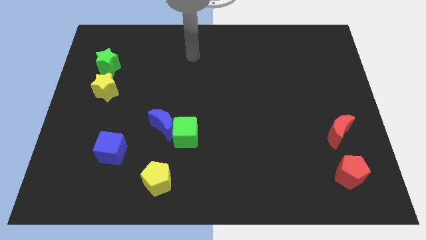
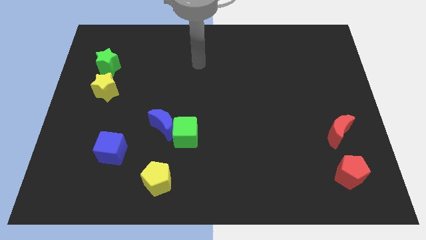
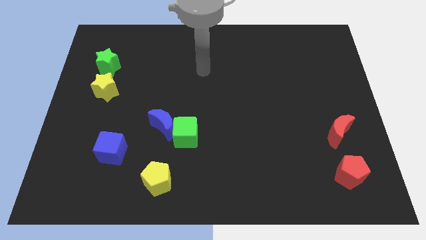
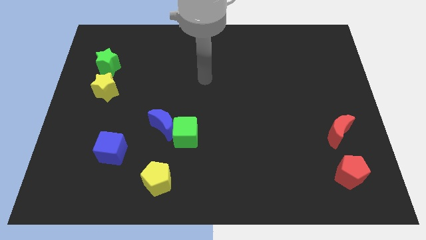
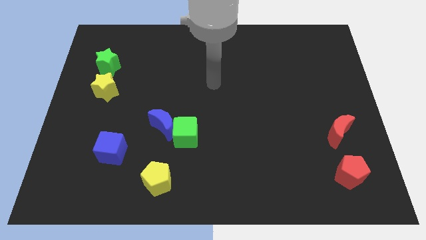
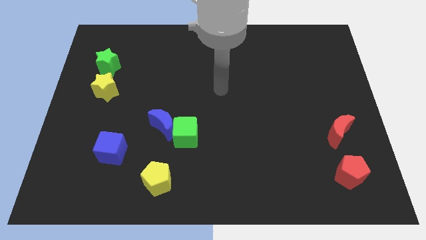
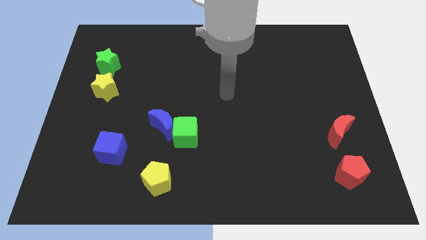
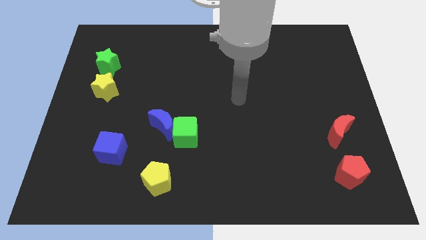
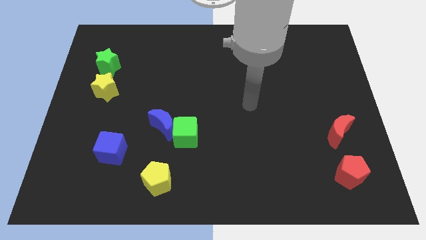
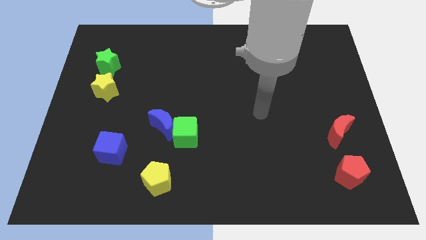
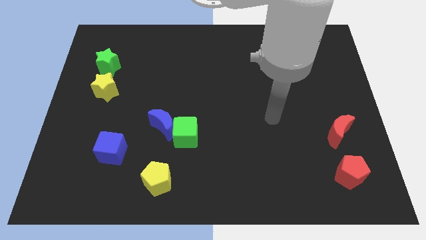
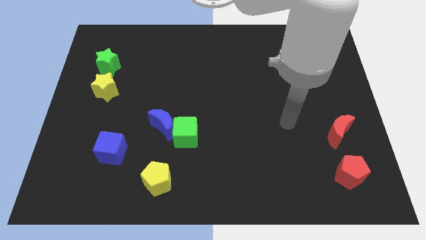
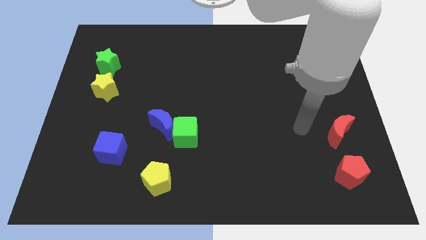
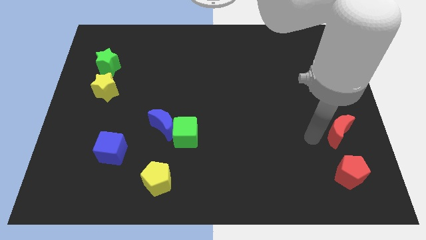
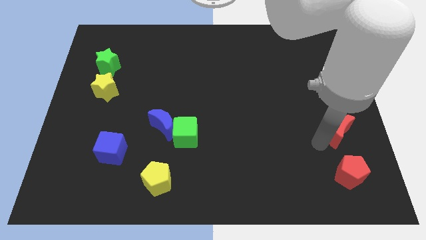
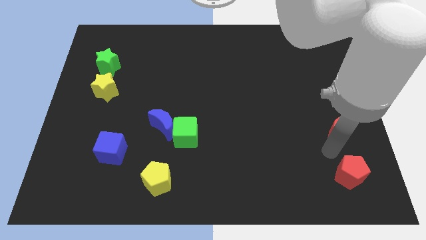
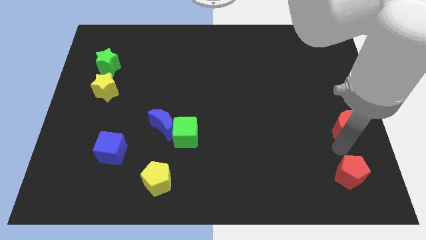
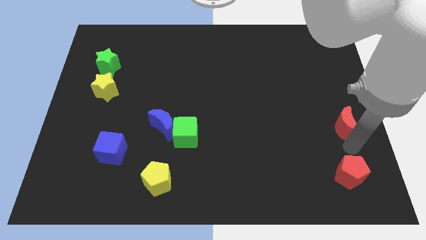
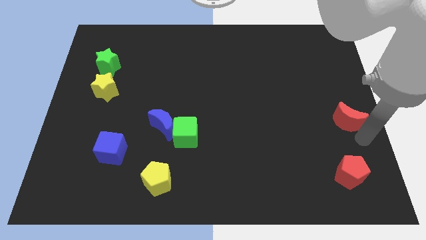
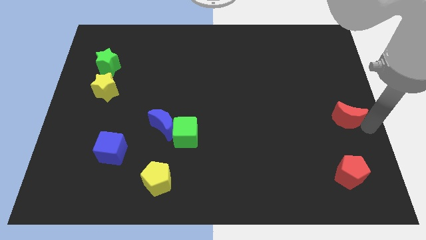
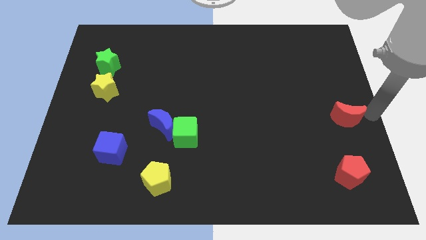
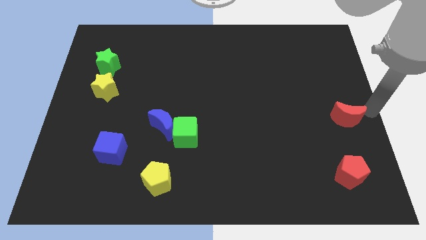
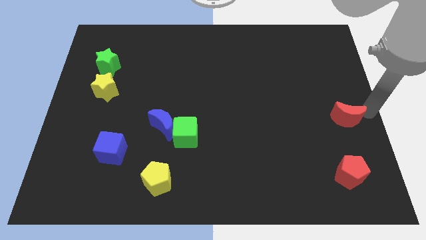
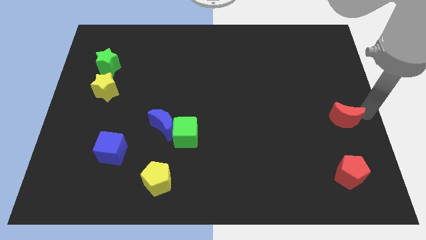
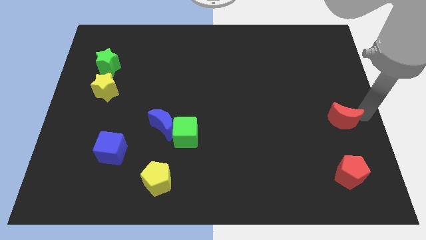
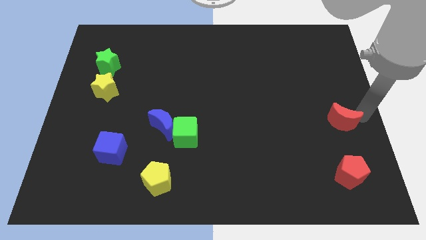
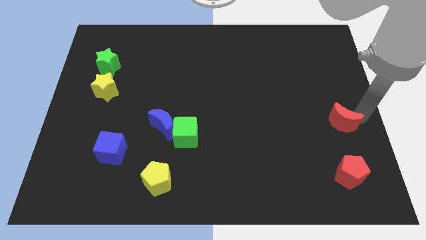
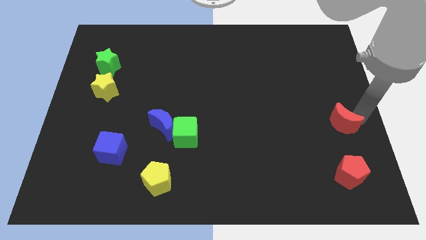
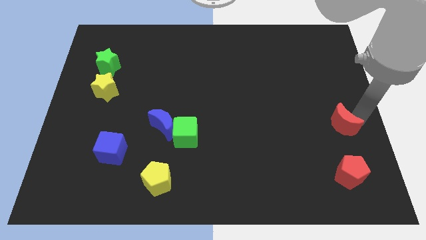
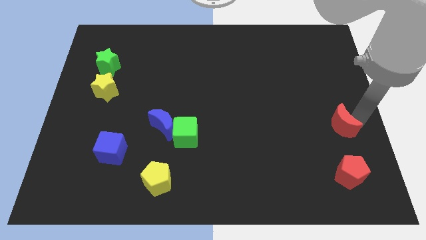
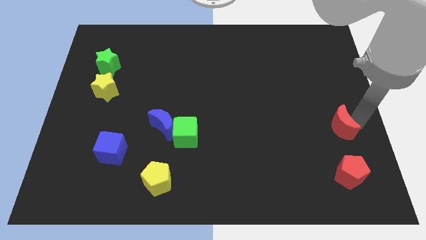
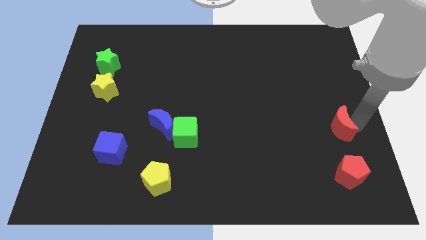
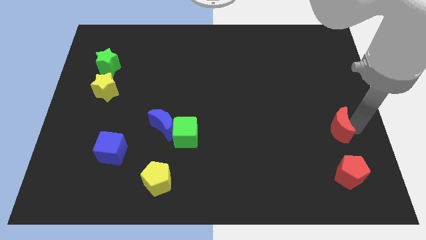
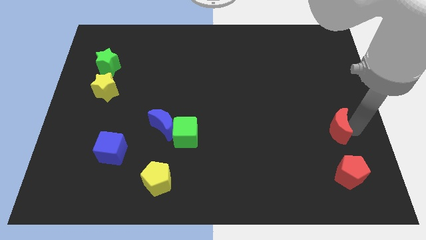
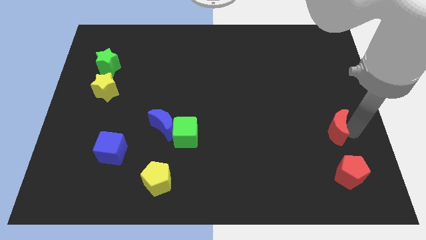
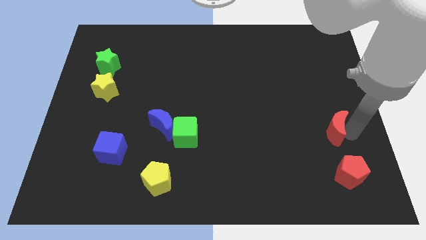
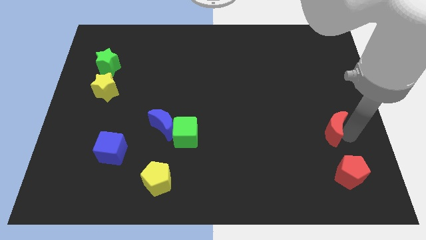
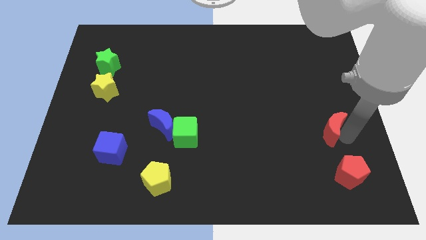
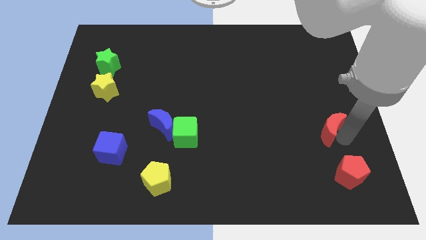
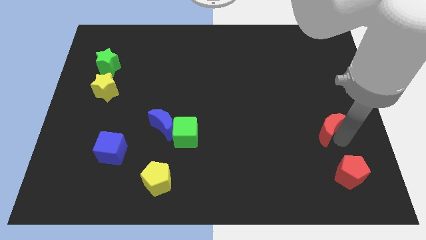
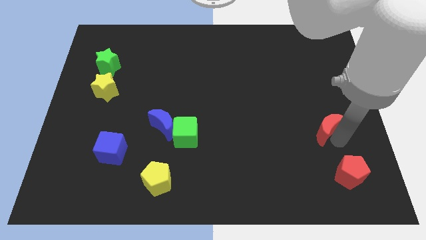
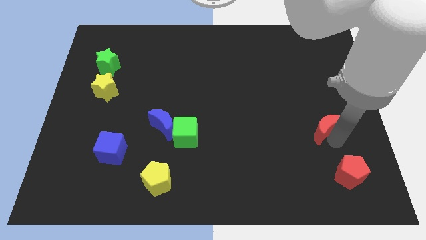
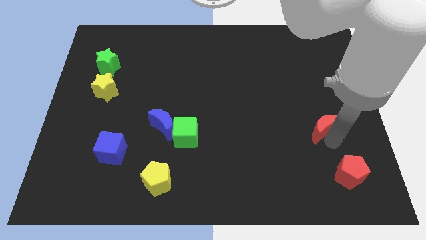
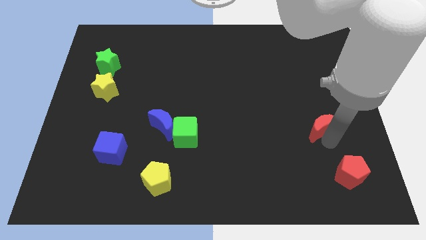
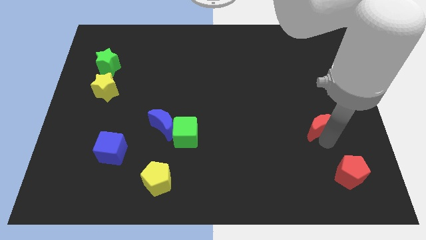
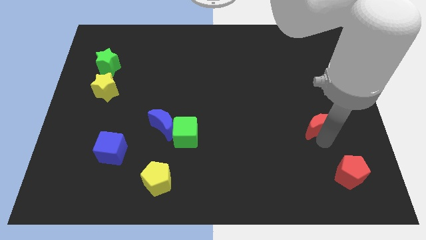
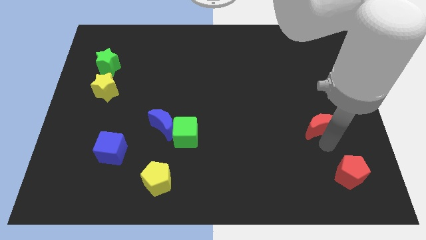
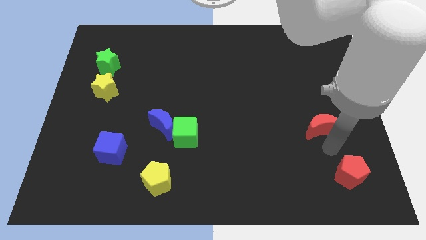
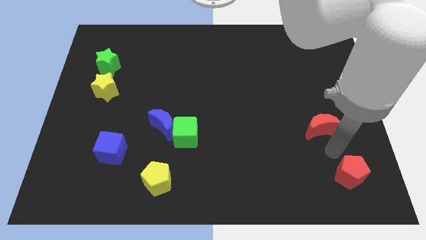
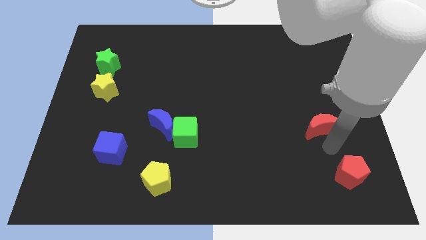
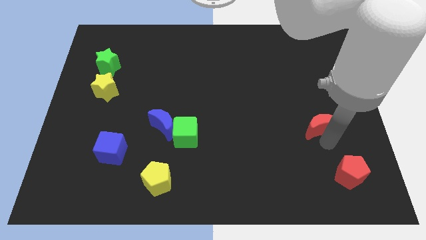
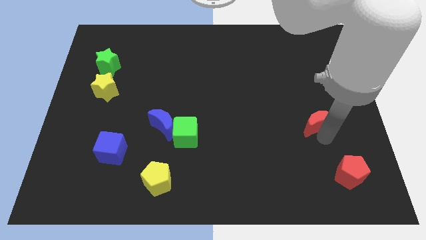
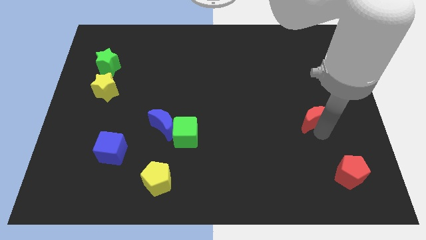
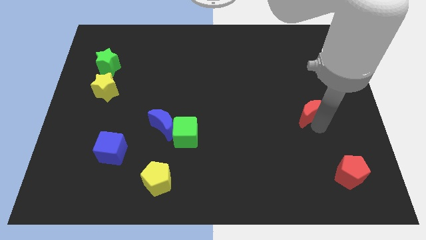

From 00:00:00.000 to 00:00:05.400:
move the red moon a bit upwards and to the left

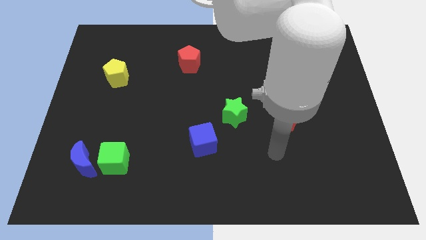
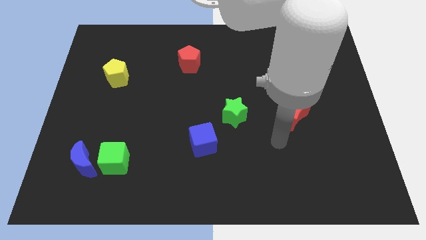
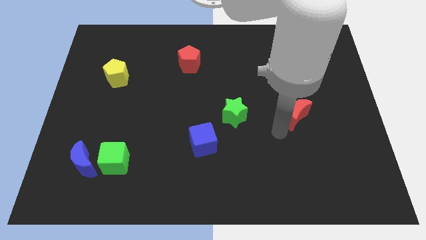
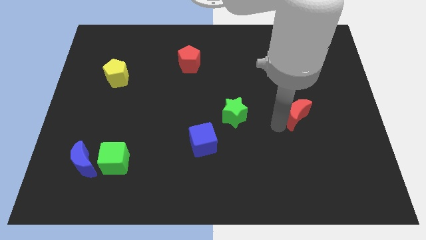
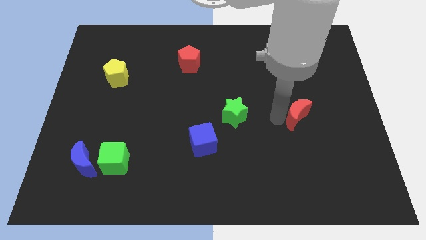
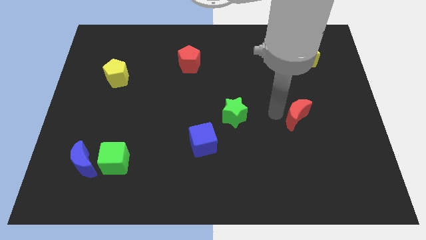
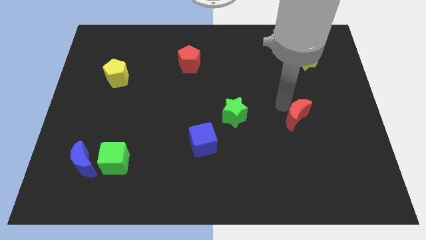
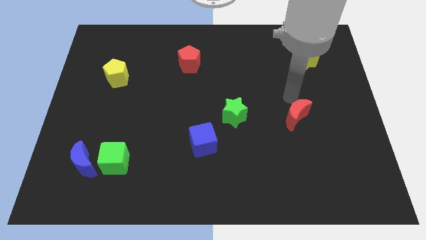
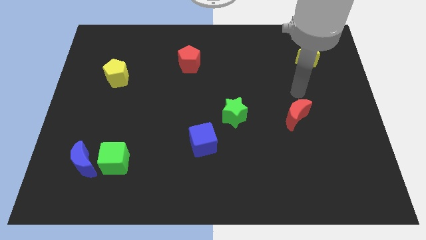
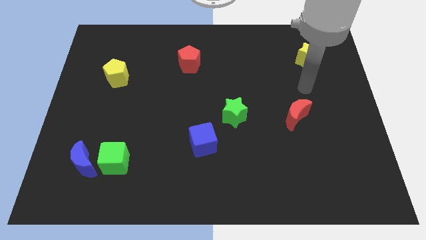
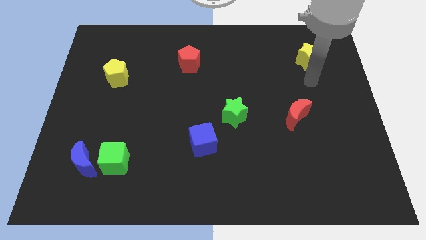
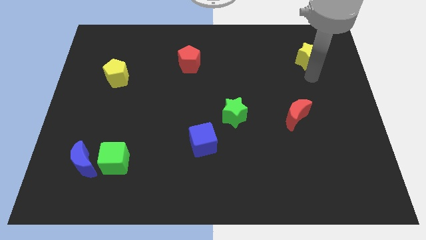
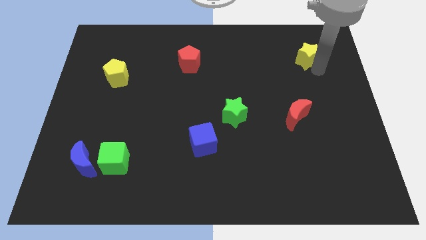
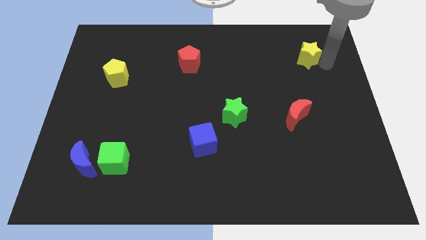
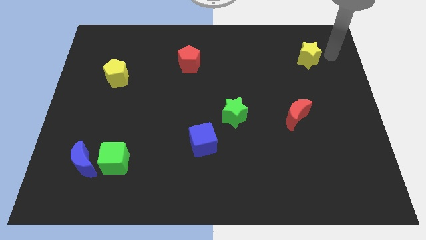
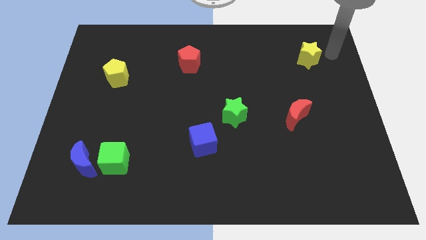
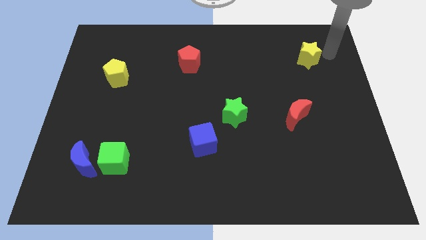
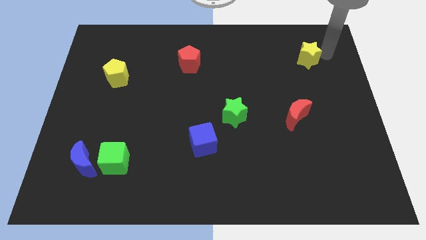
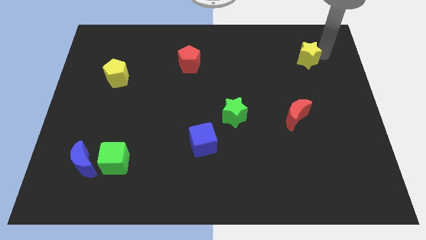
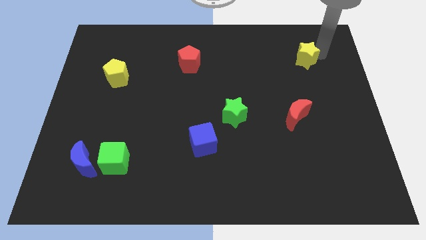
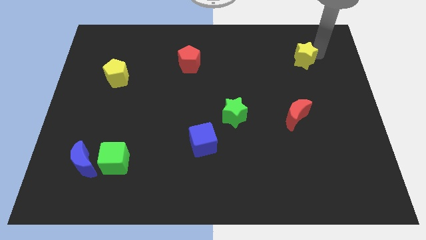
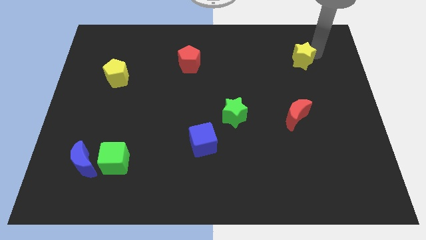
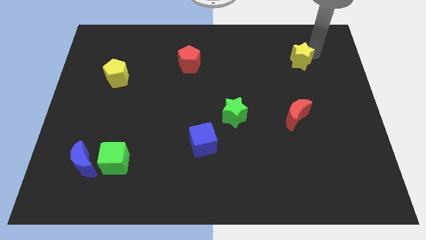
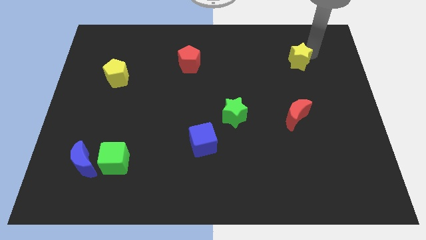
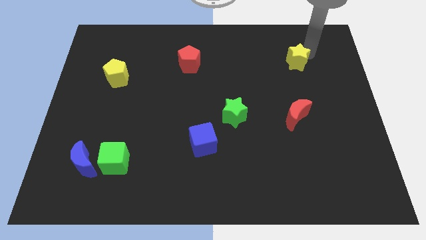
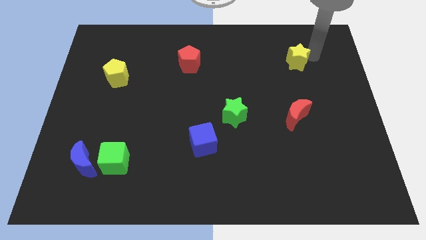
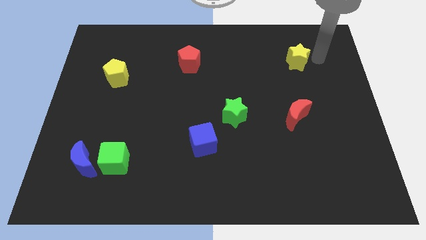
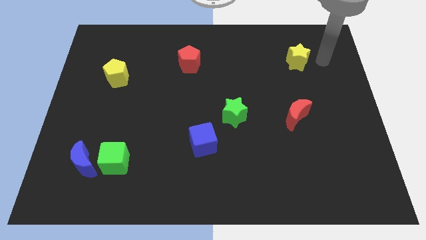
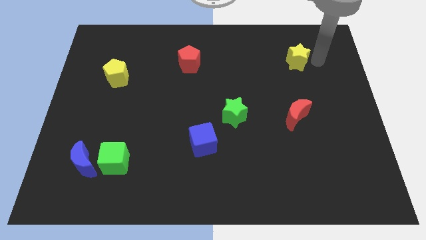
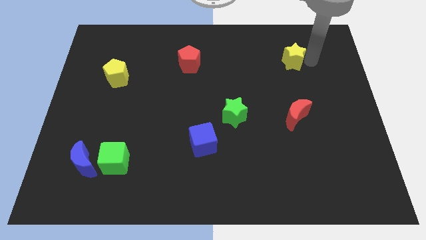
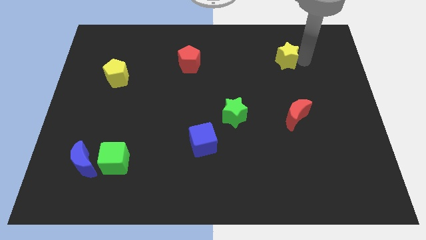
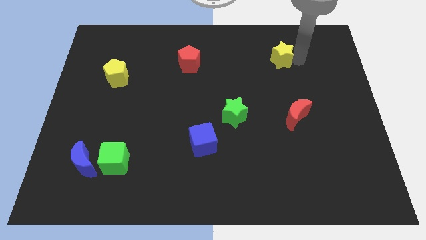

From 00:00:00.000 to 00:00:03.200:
slightly move the yellow star to the left
